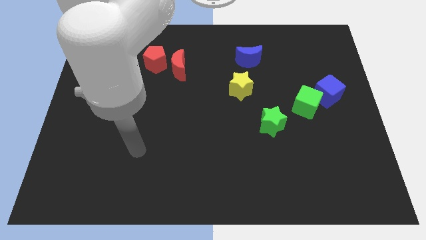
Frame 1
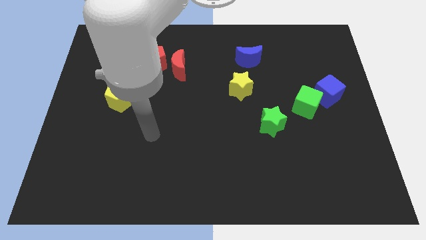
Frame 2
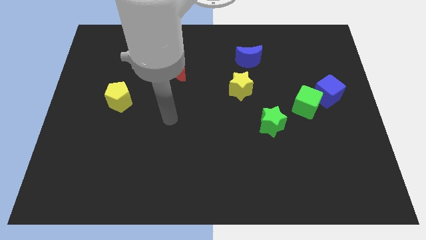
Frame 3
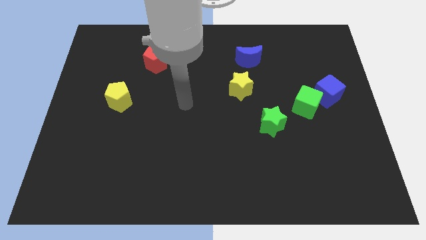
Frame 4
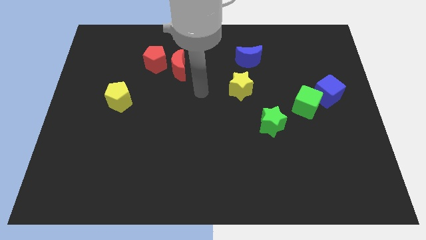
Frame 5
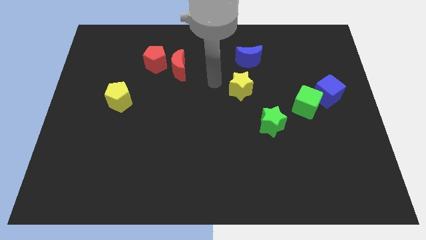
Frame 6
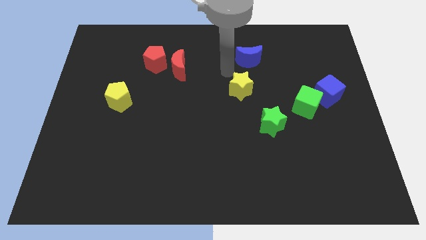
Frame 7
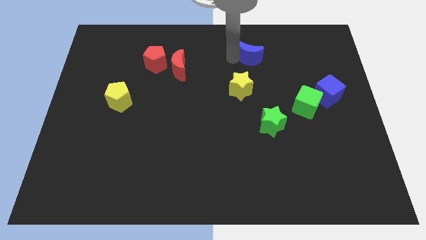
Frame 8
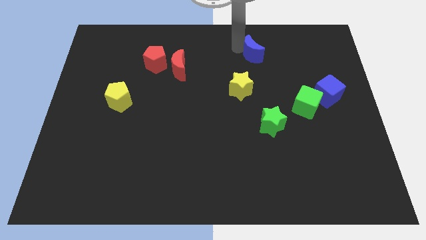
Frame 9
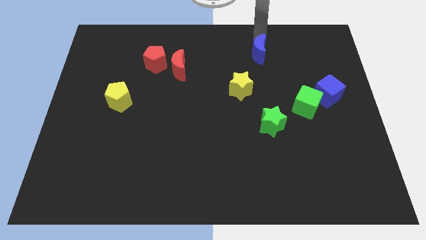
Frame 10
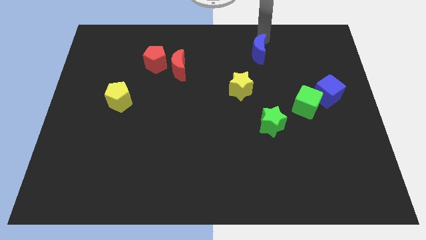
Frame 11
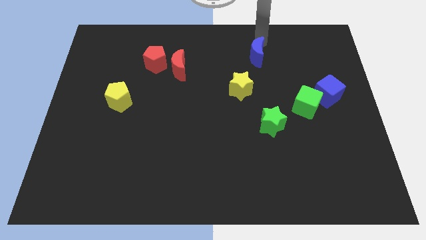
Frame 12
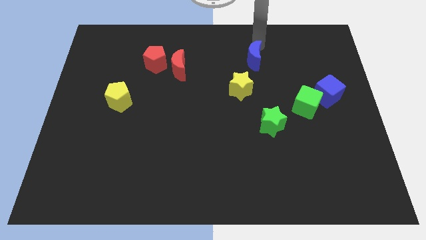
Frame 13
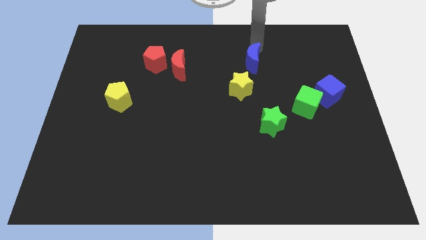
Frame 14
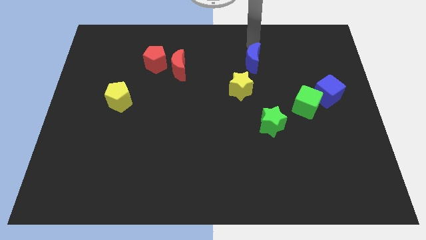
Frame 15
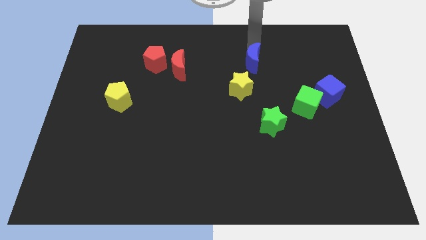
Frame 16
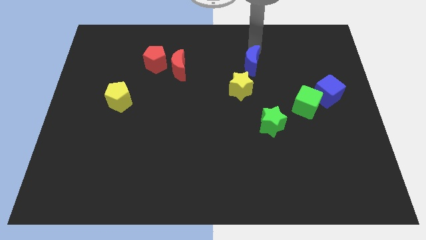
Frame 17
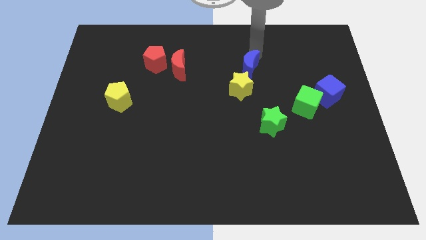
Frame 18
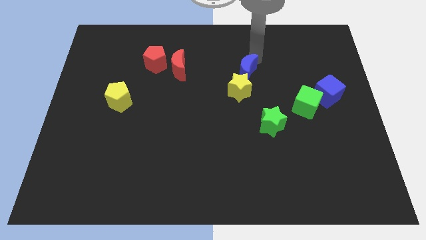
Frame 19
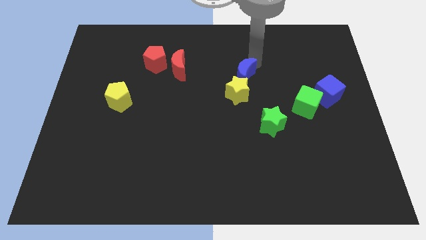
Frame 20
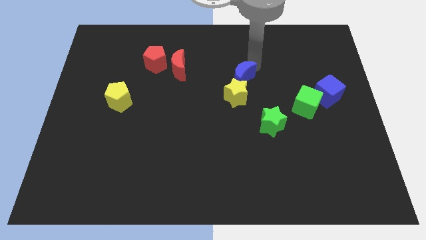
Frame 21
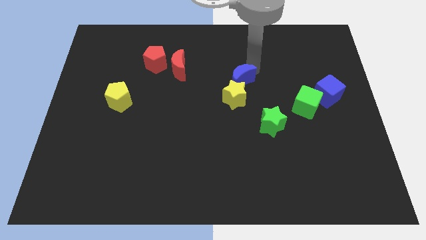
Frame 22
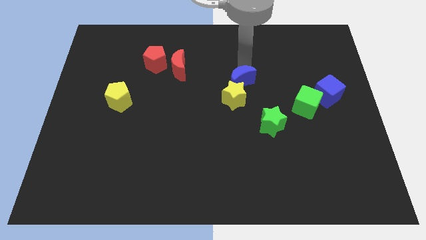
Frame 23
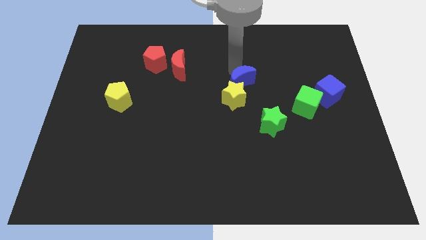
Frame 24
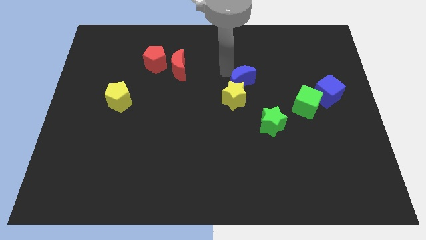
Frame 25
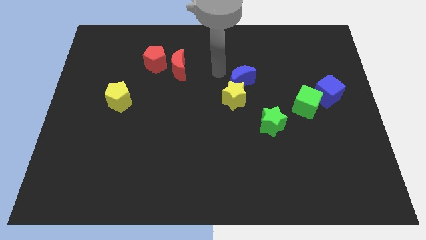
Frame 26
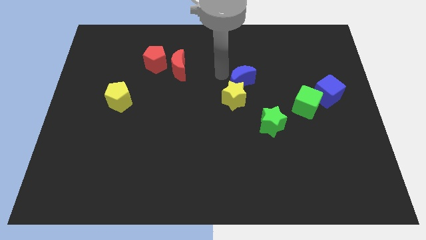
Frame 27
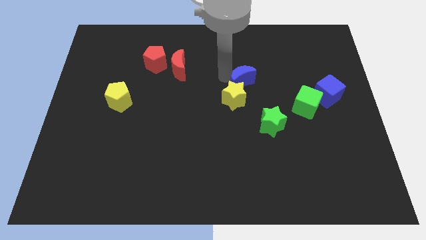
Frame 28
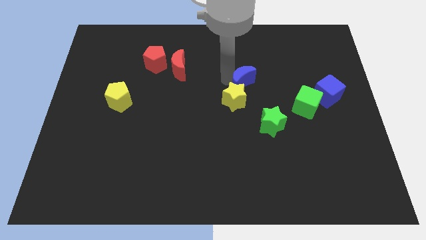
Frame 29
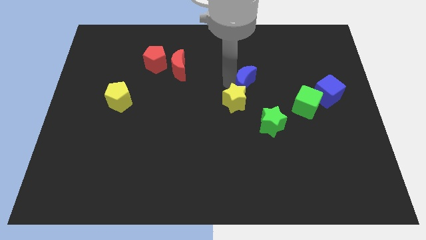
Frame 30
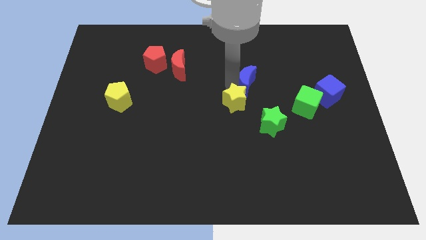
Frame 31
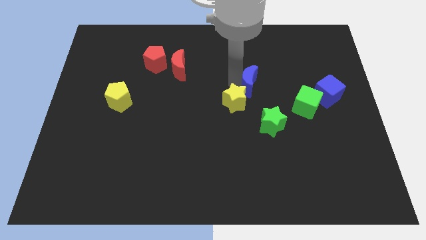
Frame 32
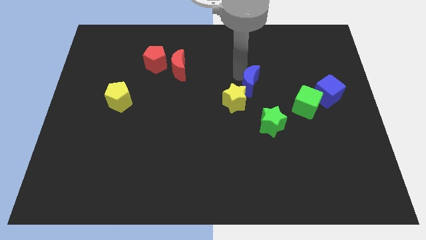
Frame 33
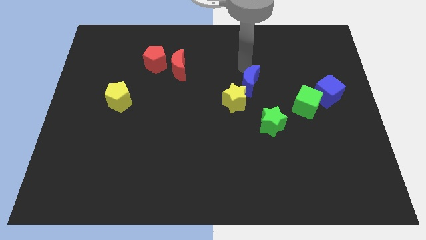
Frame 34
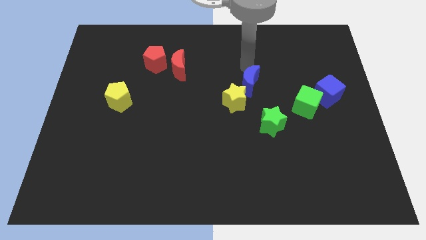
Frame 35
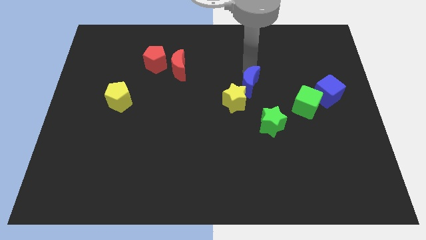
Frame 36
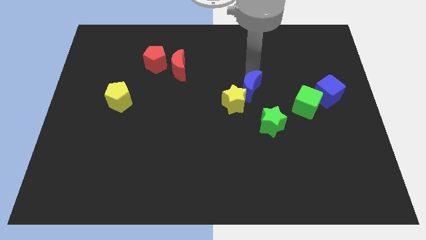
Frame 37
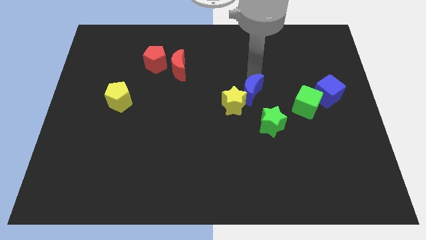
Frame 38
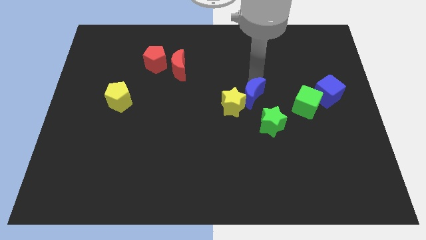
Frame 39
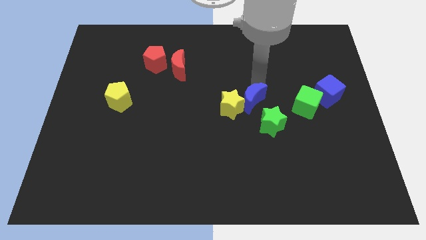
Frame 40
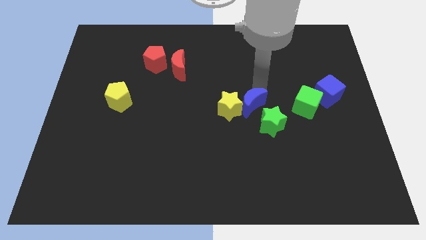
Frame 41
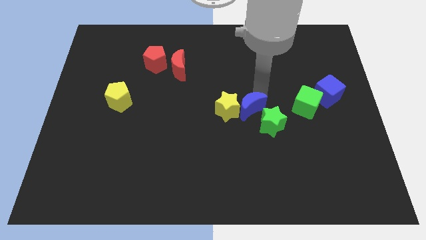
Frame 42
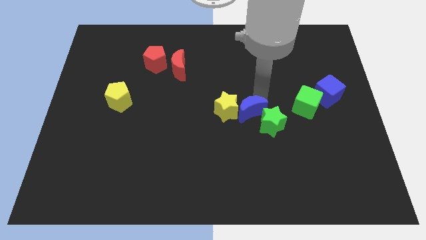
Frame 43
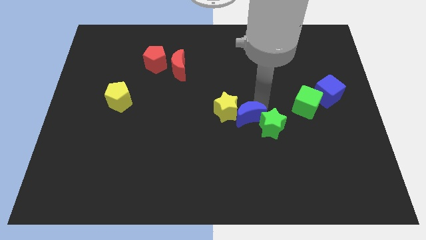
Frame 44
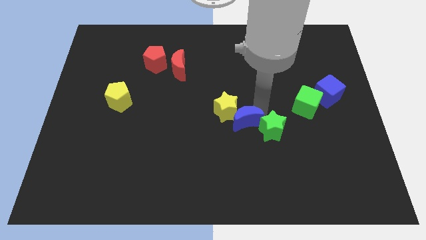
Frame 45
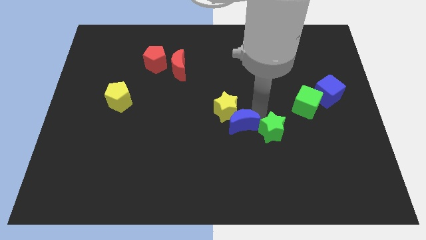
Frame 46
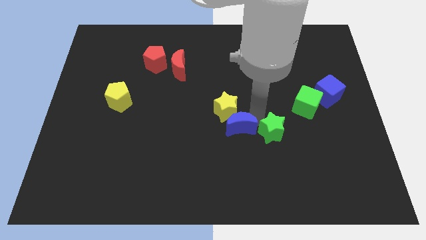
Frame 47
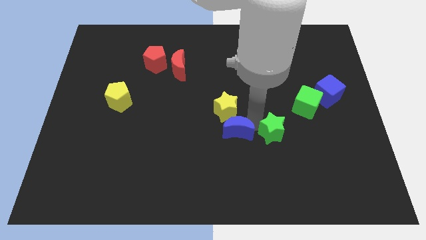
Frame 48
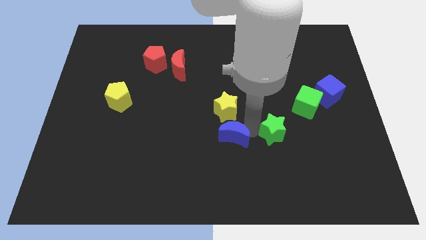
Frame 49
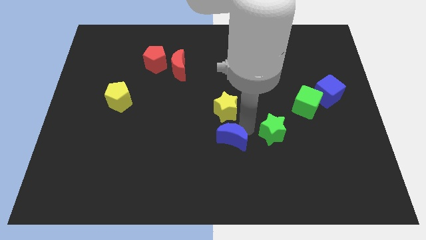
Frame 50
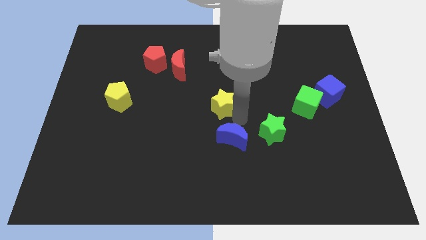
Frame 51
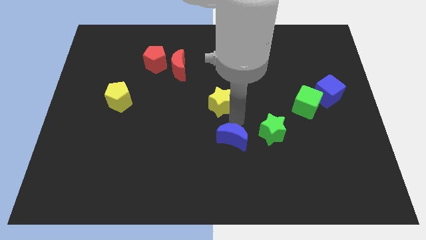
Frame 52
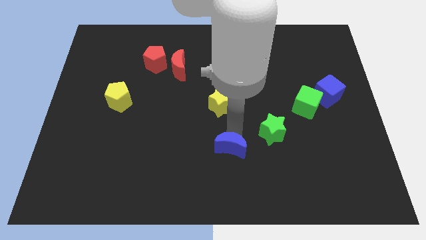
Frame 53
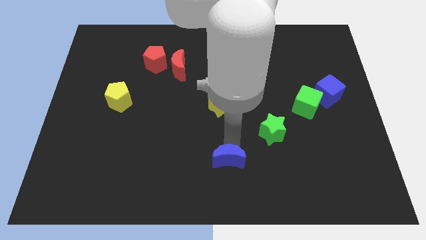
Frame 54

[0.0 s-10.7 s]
put the blue moon to the bottom

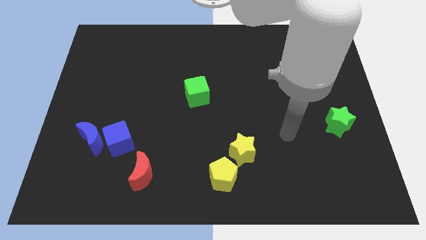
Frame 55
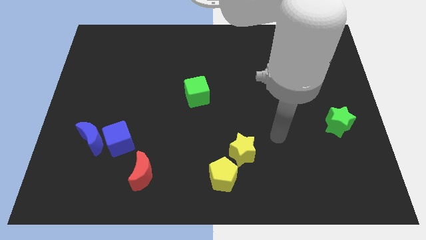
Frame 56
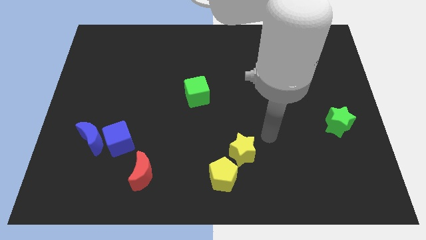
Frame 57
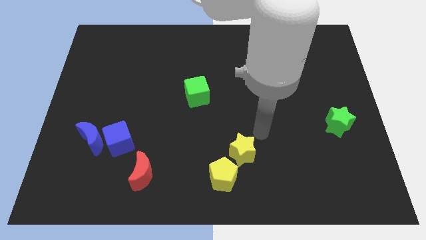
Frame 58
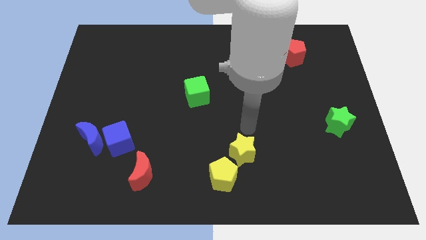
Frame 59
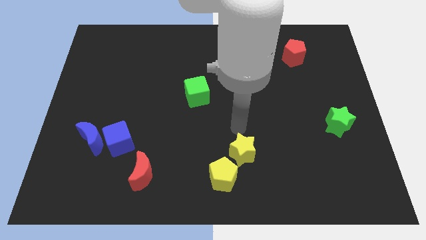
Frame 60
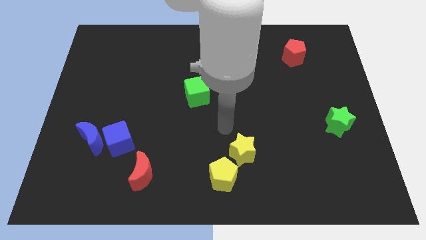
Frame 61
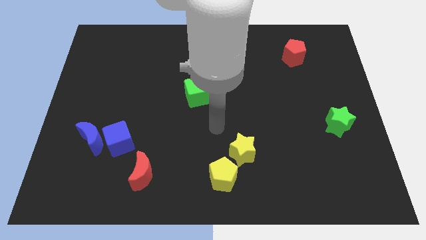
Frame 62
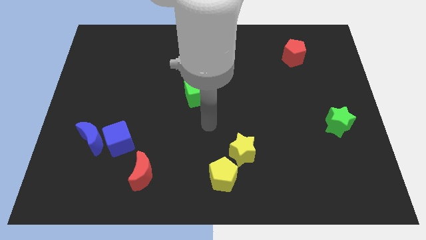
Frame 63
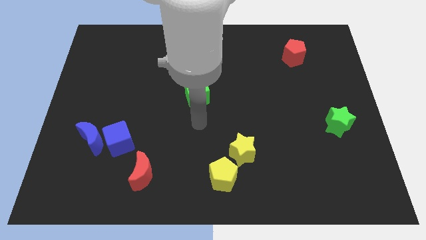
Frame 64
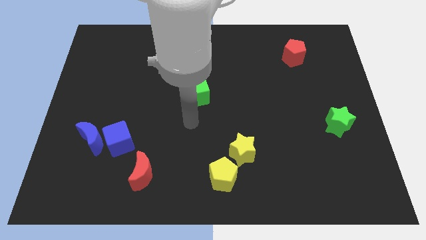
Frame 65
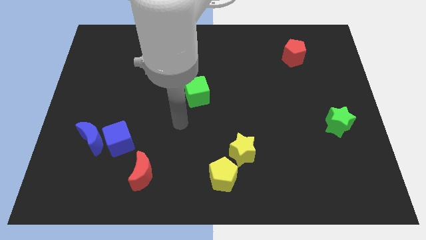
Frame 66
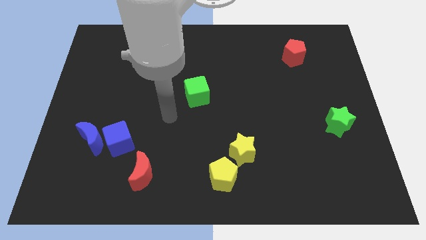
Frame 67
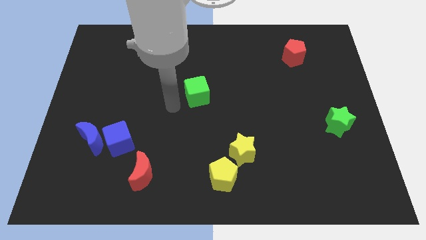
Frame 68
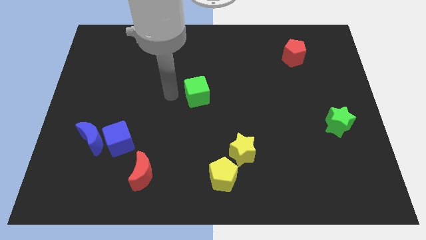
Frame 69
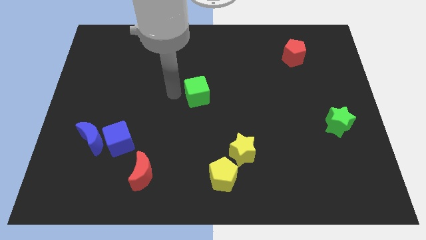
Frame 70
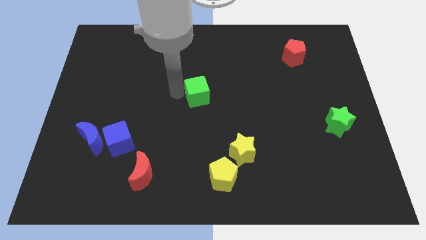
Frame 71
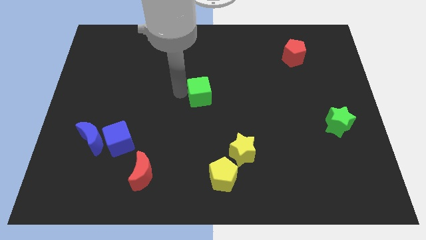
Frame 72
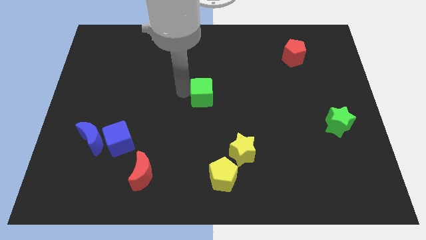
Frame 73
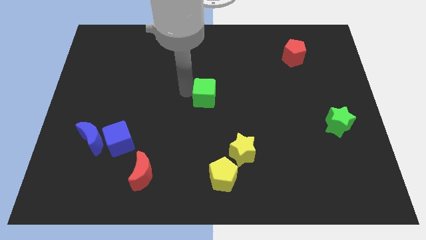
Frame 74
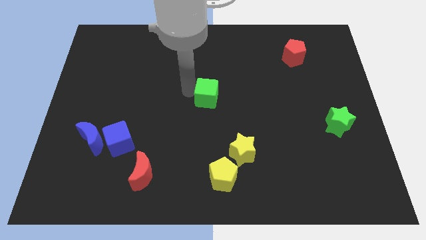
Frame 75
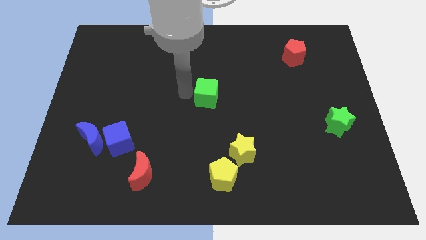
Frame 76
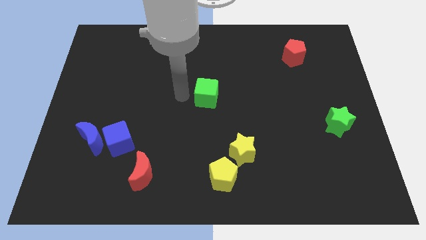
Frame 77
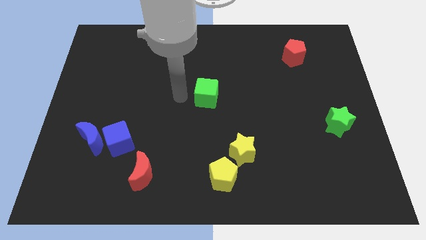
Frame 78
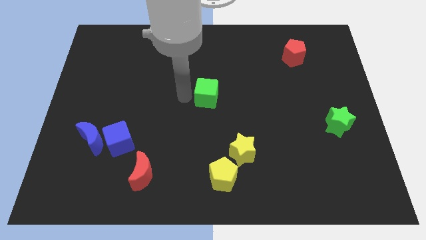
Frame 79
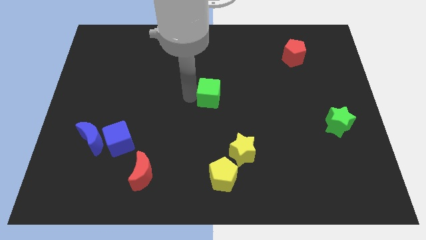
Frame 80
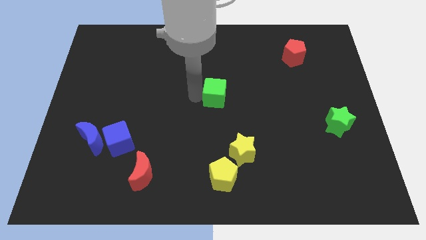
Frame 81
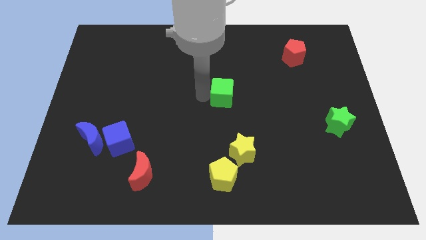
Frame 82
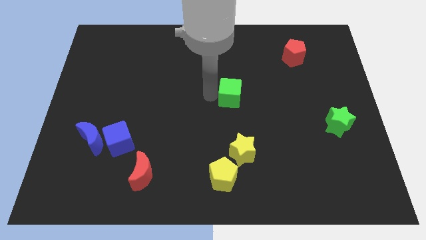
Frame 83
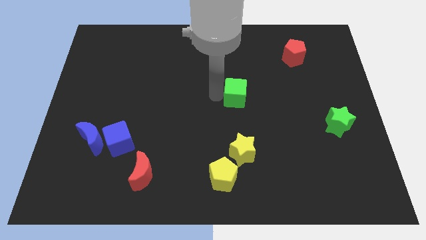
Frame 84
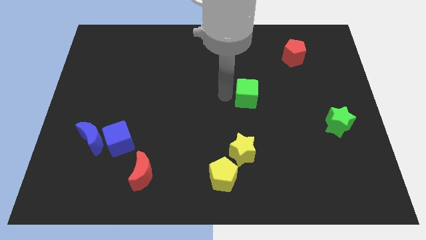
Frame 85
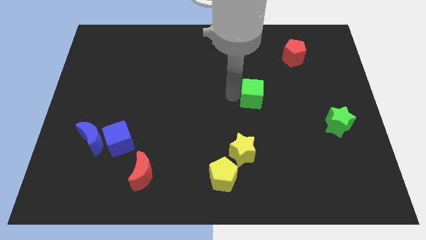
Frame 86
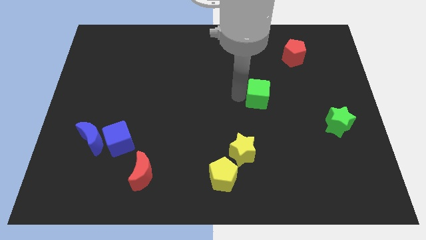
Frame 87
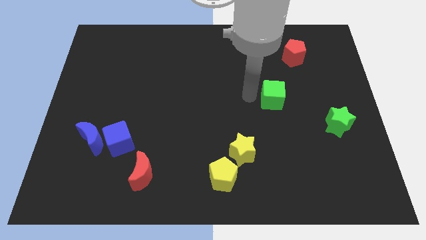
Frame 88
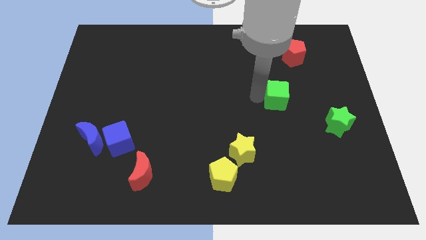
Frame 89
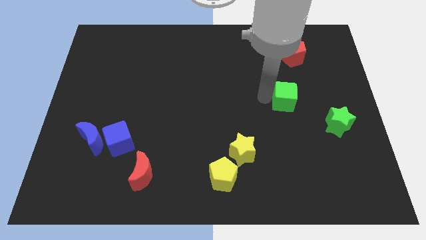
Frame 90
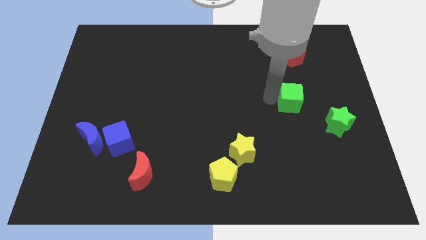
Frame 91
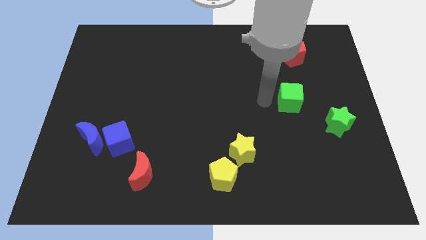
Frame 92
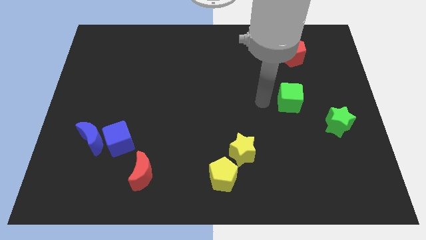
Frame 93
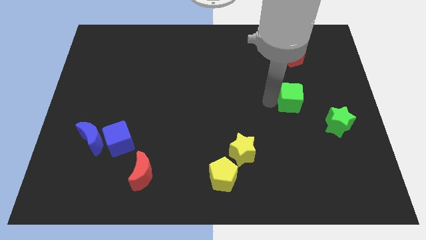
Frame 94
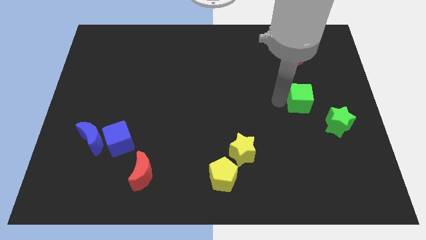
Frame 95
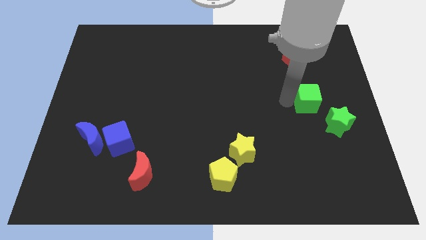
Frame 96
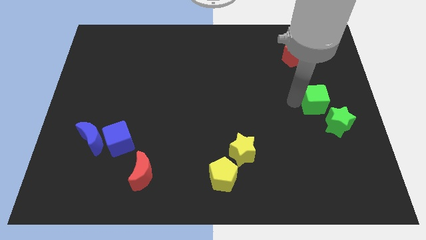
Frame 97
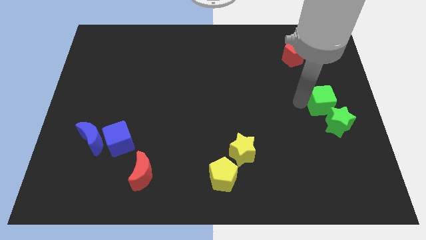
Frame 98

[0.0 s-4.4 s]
put the green cube to the right side of the board
